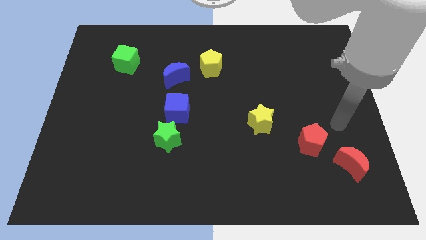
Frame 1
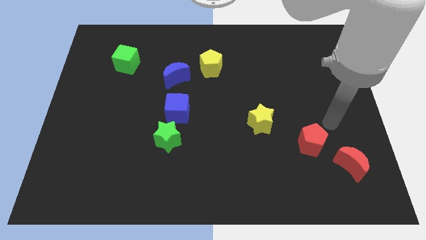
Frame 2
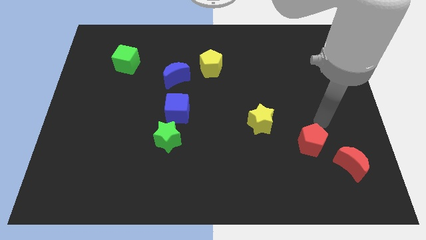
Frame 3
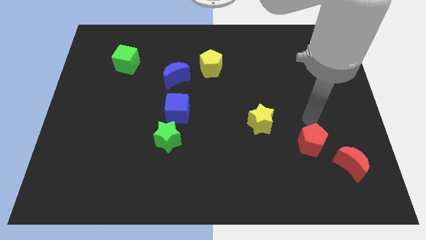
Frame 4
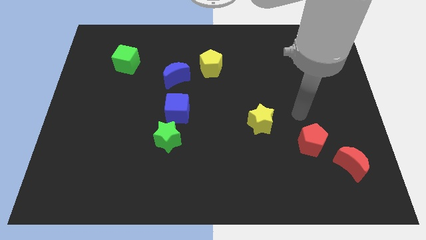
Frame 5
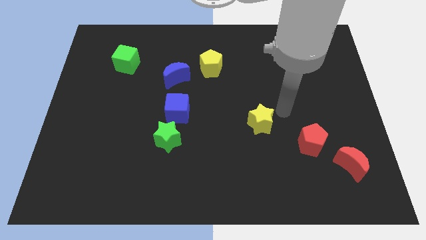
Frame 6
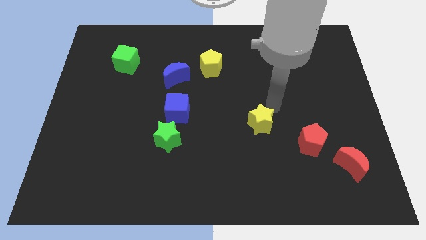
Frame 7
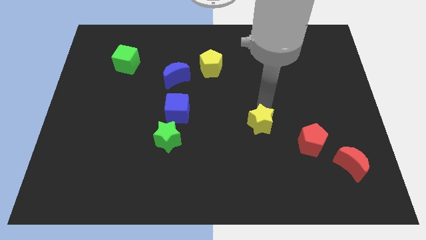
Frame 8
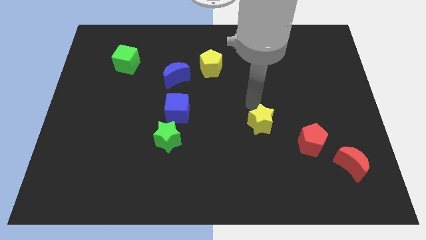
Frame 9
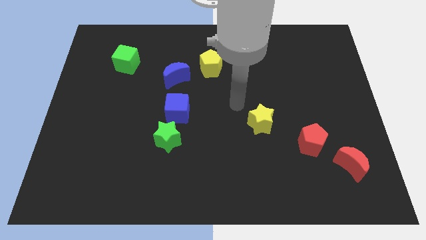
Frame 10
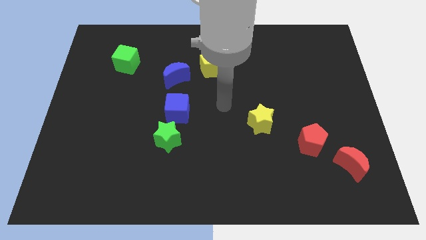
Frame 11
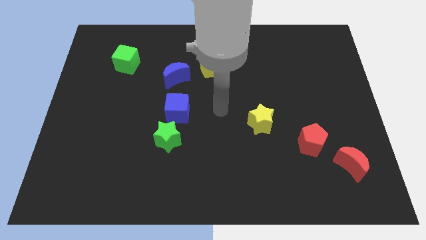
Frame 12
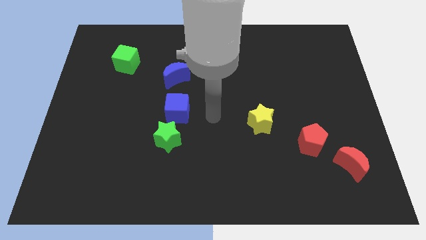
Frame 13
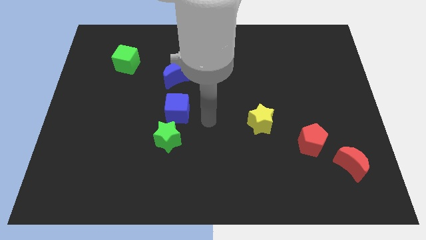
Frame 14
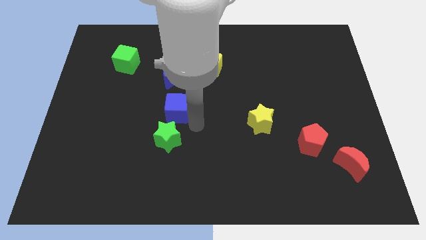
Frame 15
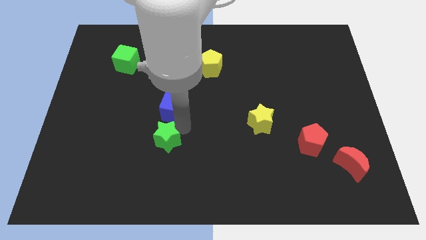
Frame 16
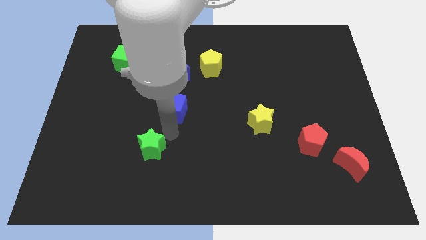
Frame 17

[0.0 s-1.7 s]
move the blue cube away from the green star

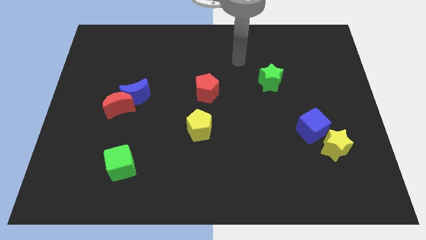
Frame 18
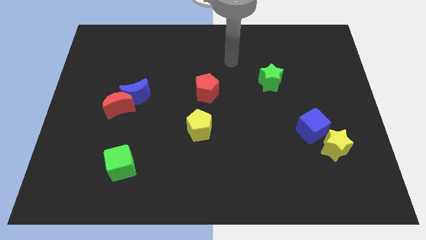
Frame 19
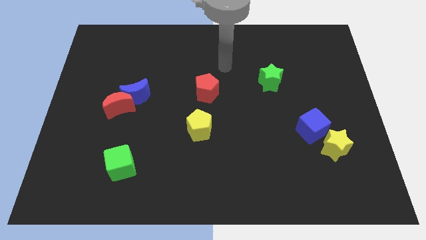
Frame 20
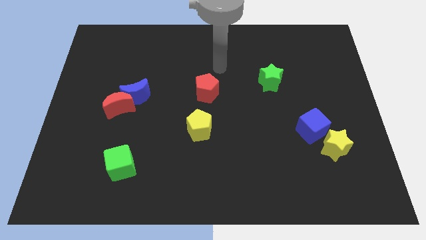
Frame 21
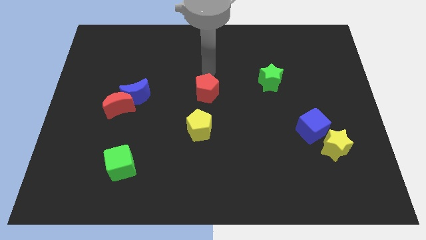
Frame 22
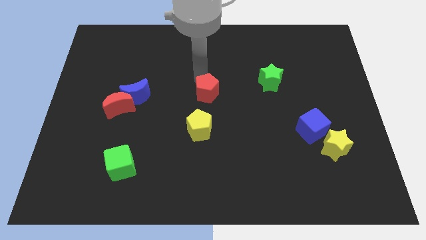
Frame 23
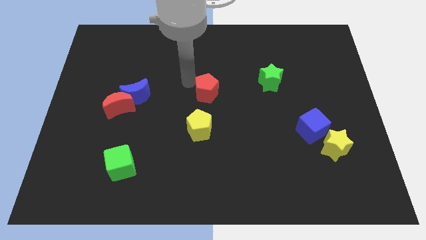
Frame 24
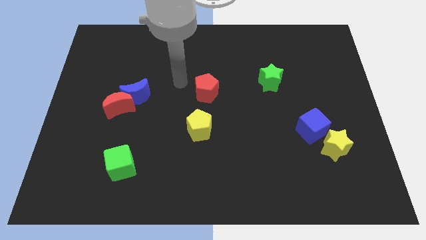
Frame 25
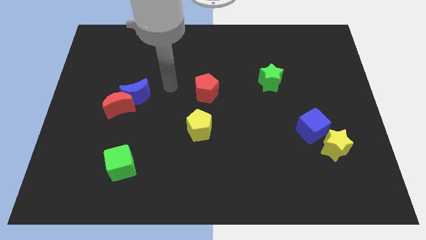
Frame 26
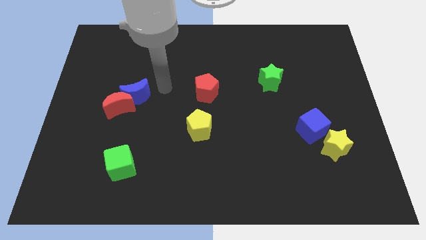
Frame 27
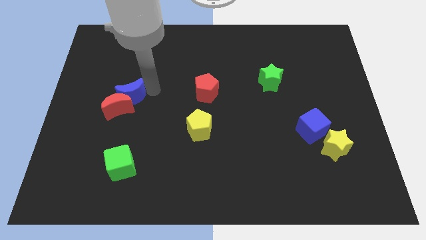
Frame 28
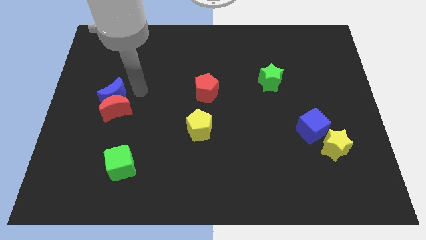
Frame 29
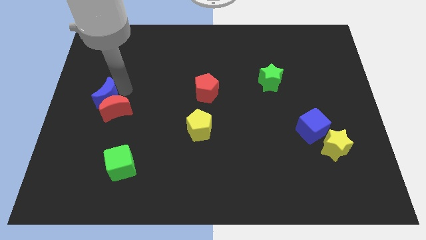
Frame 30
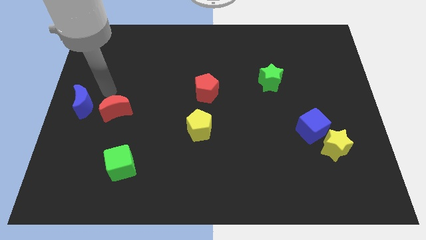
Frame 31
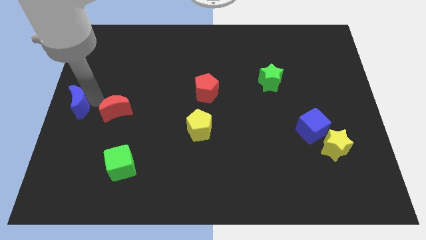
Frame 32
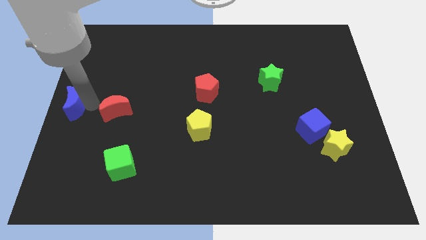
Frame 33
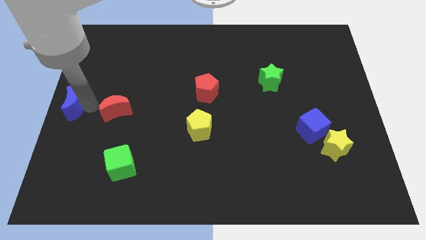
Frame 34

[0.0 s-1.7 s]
pull the red moon apart from the blue moon

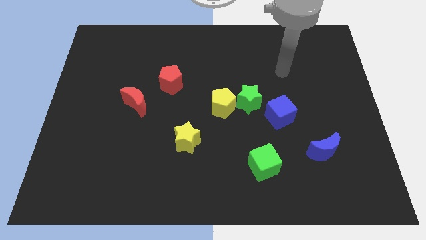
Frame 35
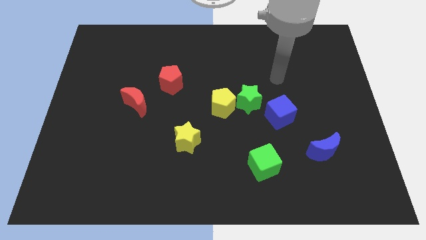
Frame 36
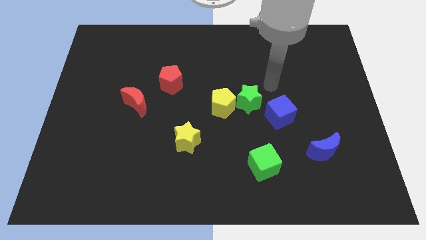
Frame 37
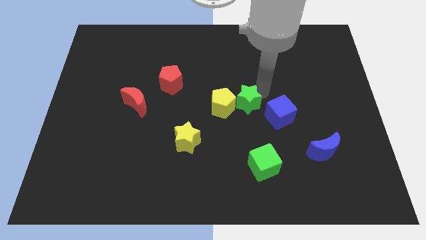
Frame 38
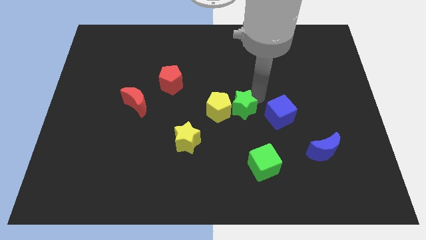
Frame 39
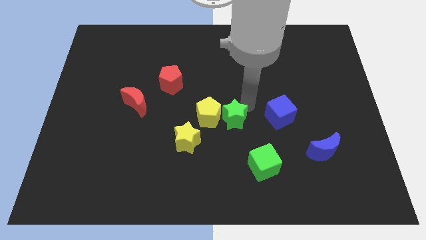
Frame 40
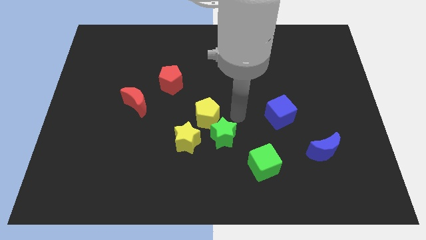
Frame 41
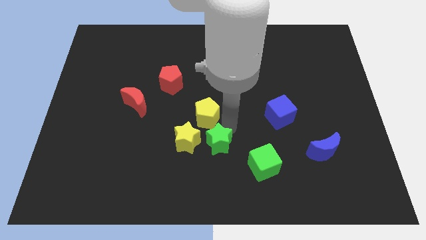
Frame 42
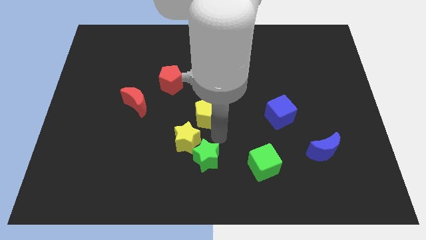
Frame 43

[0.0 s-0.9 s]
pull the yellow pentagon apart from the green star

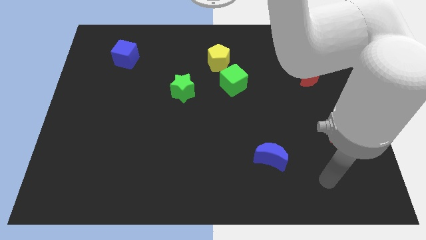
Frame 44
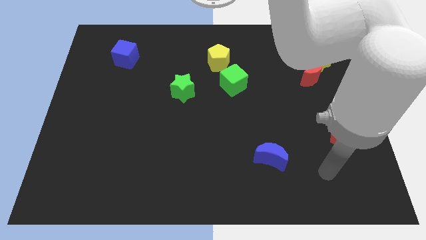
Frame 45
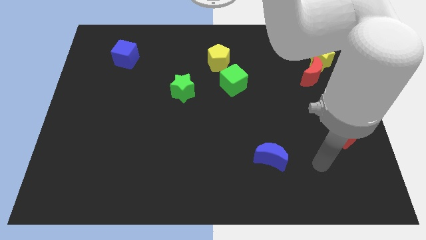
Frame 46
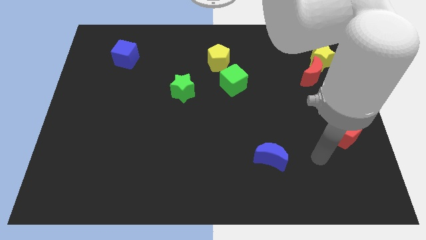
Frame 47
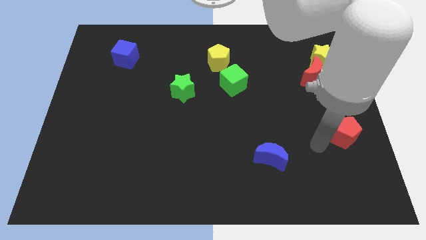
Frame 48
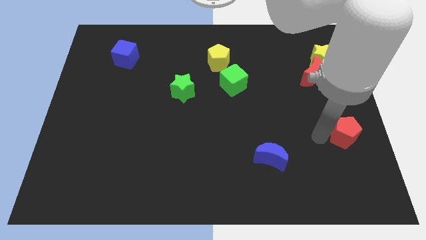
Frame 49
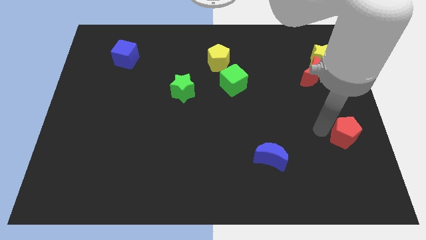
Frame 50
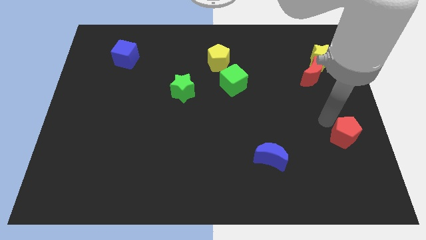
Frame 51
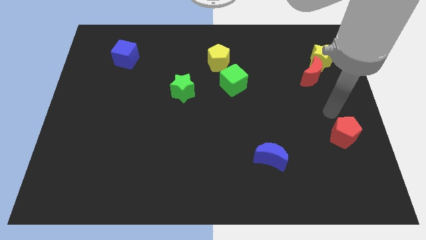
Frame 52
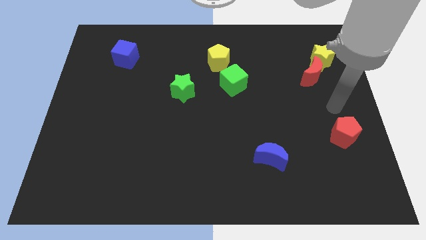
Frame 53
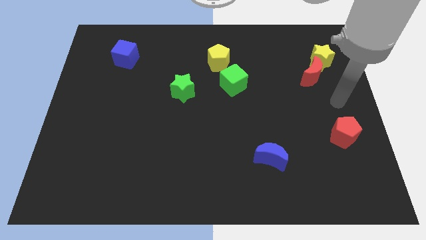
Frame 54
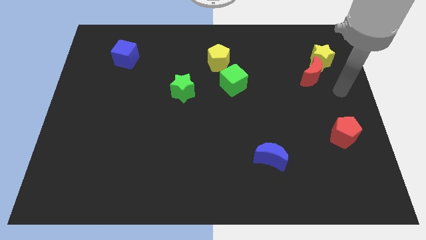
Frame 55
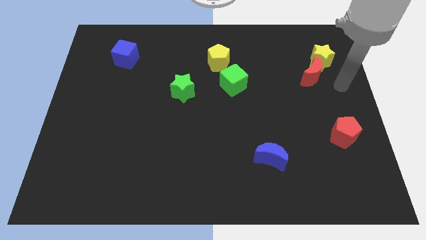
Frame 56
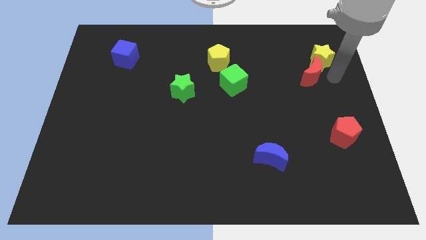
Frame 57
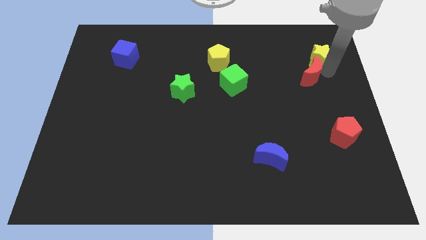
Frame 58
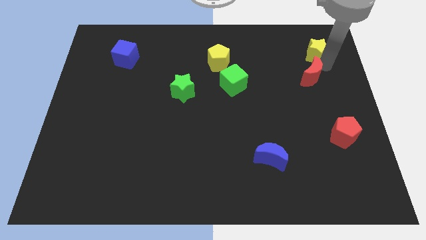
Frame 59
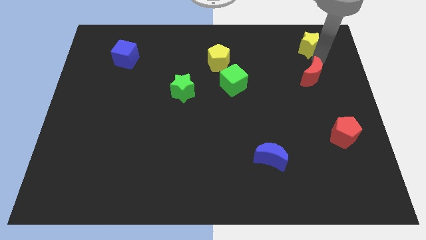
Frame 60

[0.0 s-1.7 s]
move the red moon away from the yellow star

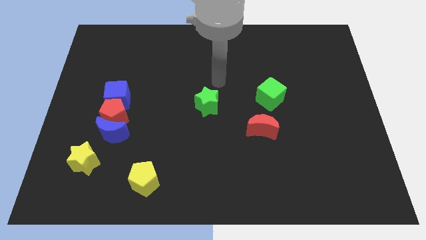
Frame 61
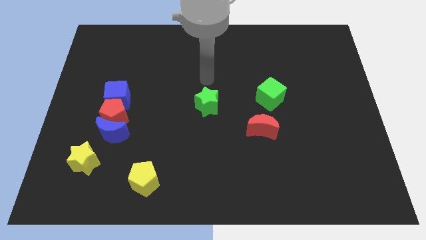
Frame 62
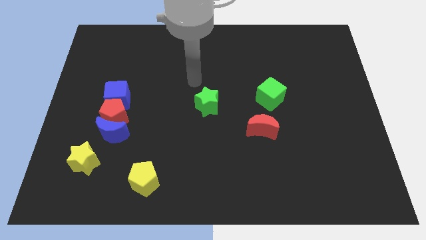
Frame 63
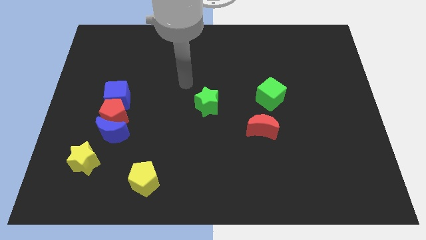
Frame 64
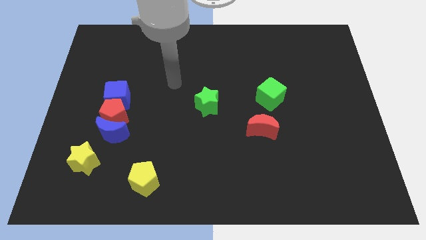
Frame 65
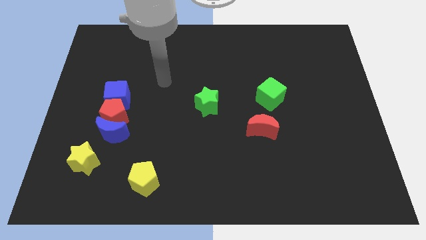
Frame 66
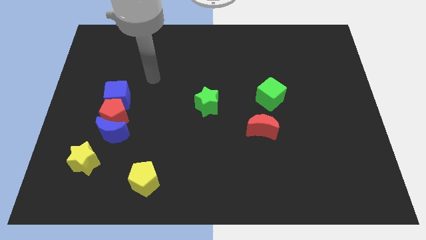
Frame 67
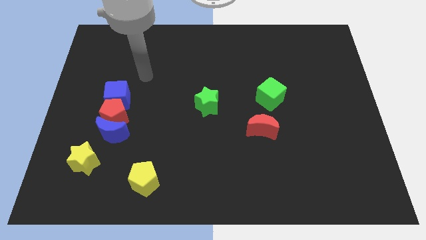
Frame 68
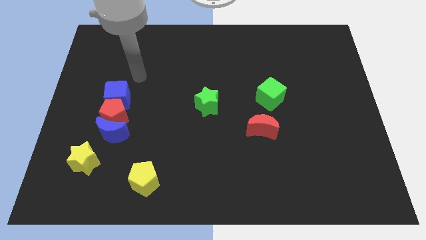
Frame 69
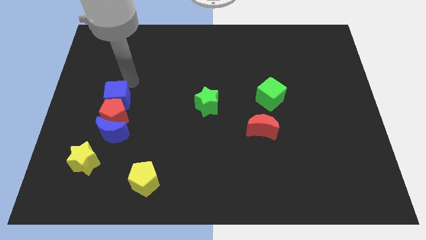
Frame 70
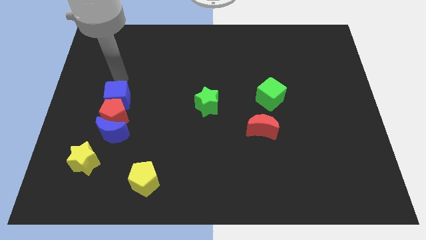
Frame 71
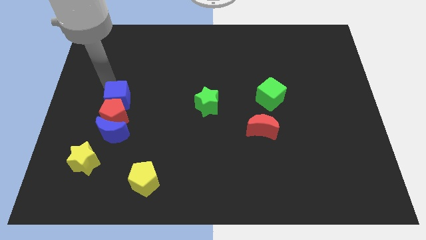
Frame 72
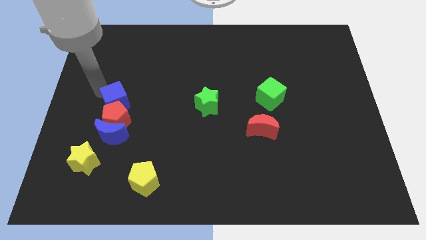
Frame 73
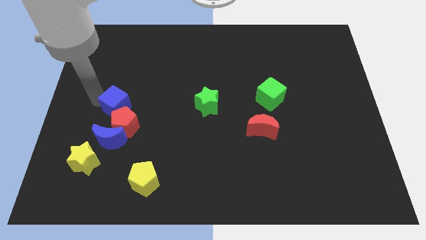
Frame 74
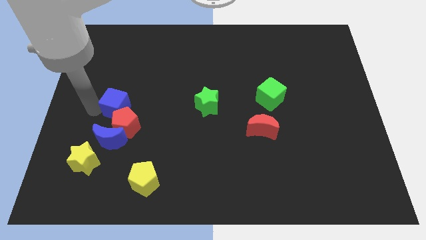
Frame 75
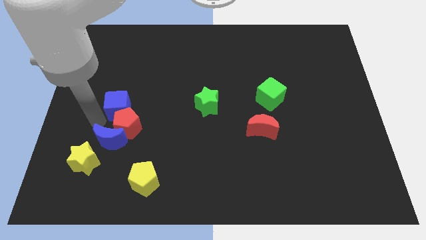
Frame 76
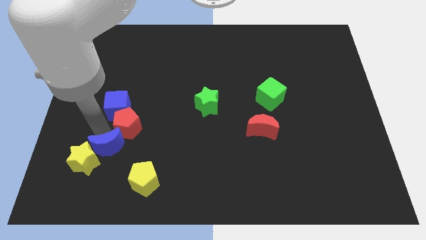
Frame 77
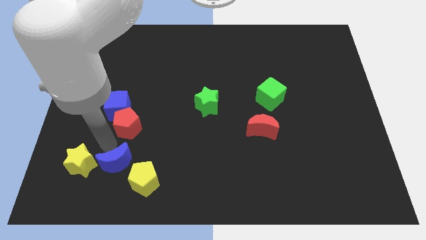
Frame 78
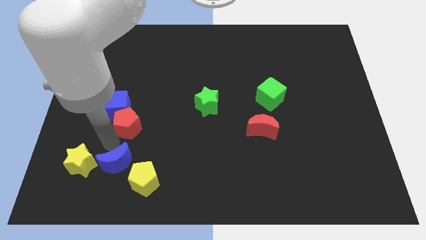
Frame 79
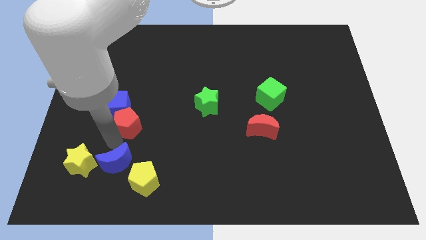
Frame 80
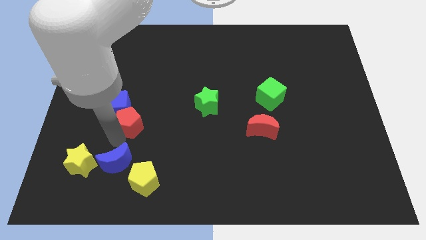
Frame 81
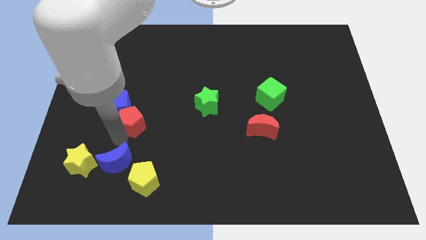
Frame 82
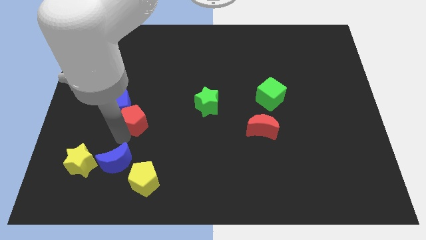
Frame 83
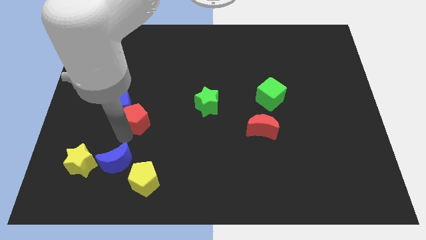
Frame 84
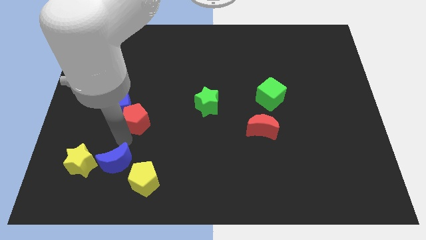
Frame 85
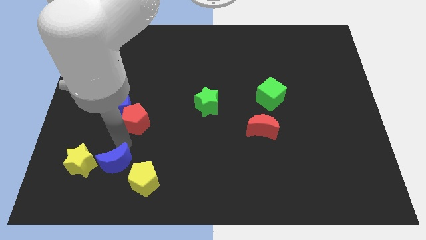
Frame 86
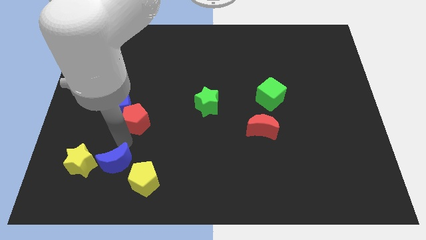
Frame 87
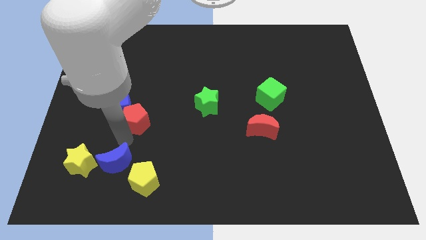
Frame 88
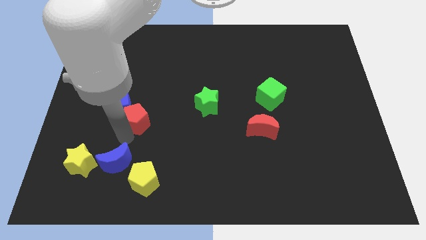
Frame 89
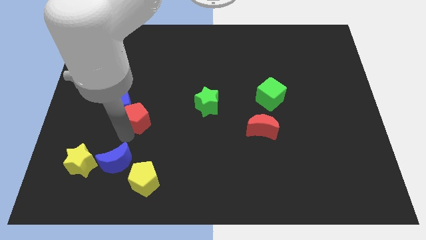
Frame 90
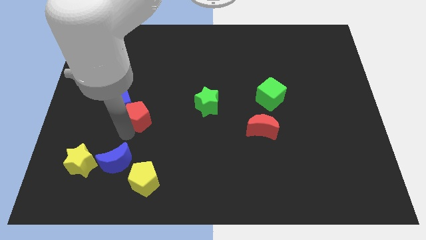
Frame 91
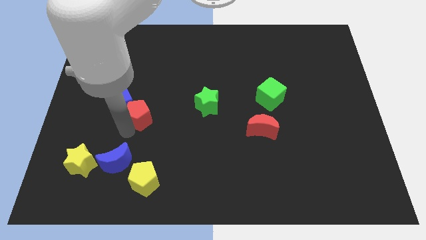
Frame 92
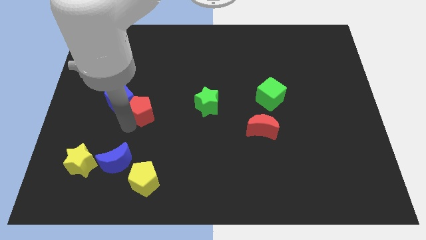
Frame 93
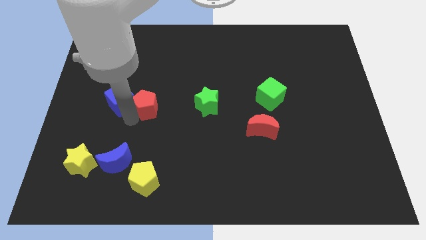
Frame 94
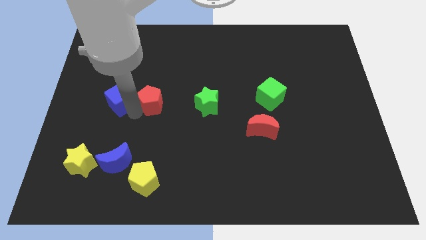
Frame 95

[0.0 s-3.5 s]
move the red pentagon away from the blue moon and blue cube
